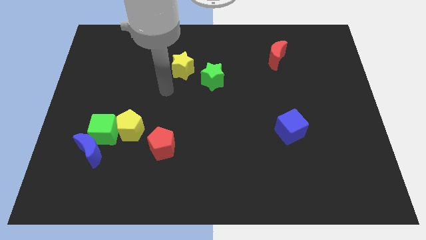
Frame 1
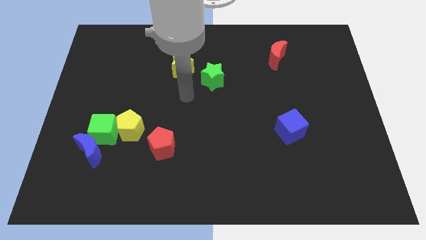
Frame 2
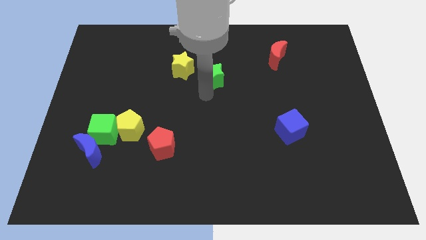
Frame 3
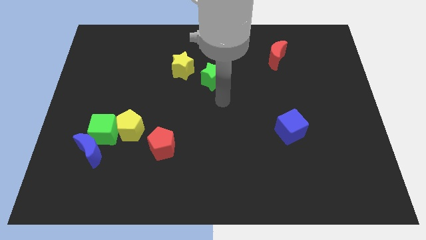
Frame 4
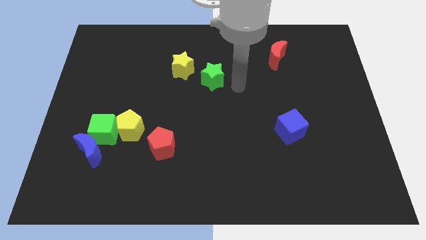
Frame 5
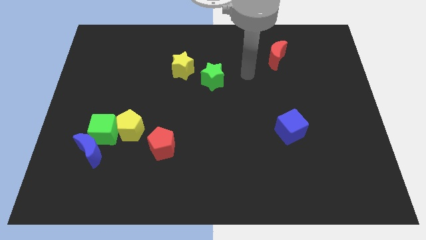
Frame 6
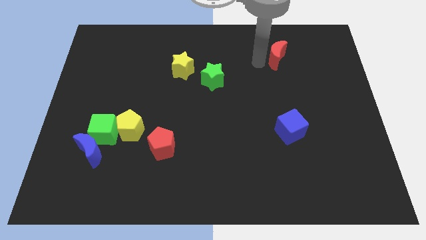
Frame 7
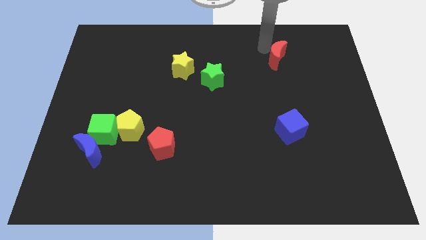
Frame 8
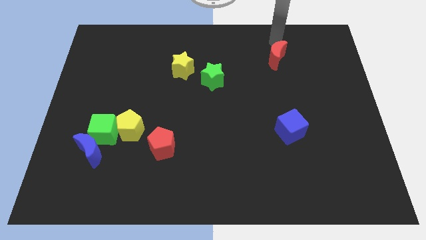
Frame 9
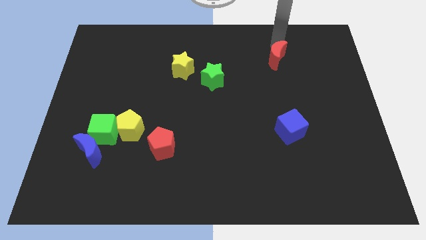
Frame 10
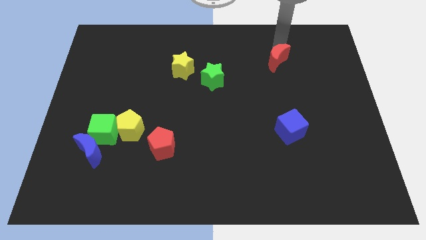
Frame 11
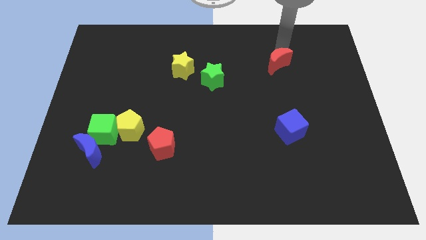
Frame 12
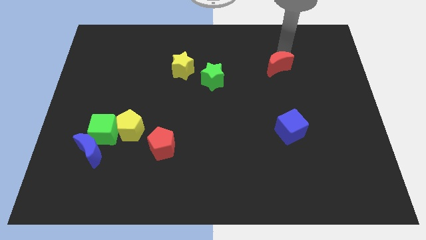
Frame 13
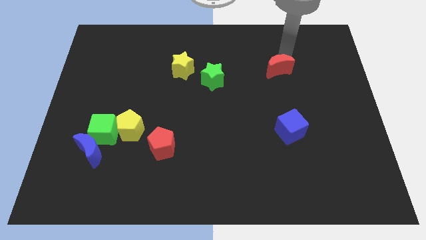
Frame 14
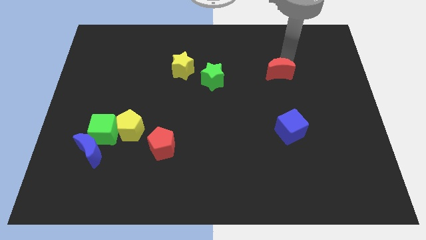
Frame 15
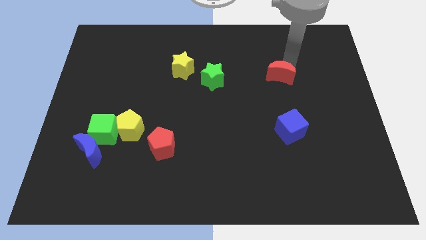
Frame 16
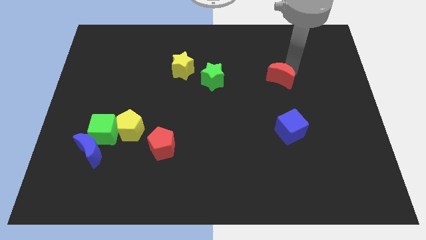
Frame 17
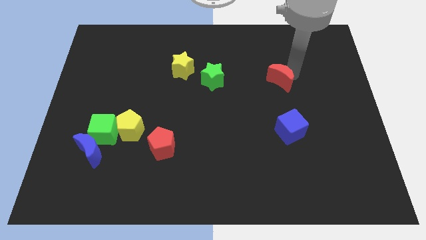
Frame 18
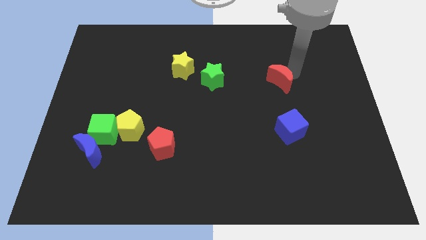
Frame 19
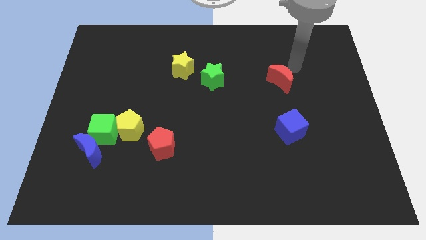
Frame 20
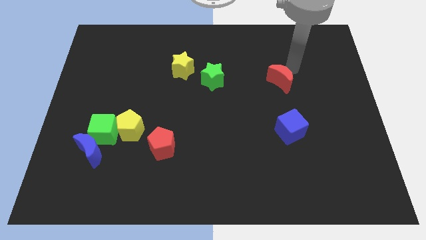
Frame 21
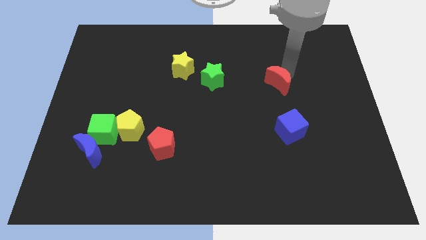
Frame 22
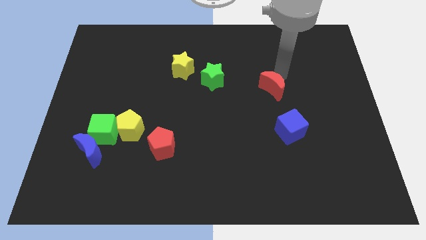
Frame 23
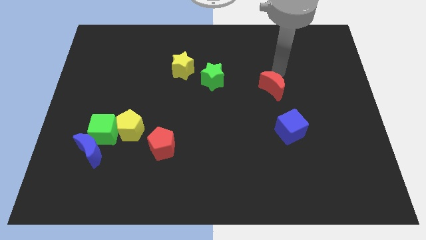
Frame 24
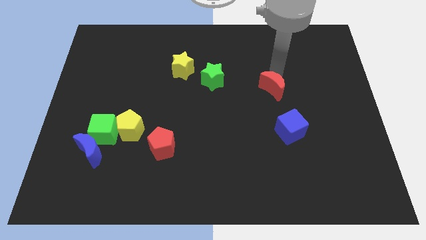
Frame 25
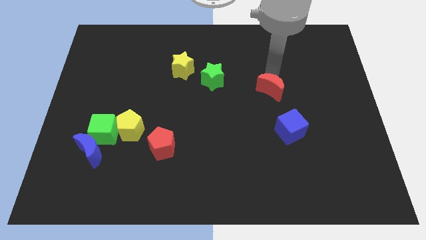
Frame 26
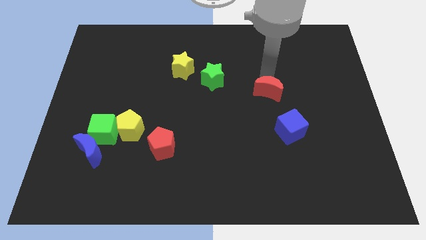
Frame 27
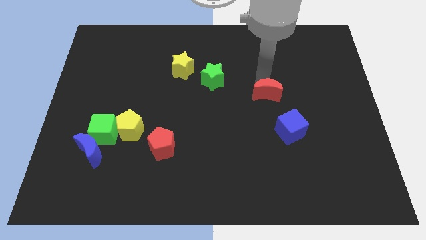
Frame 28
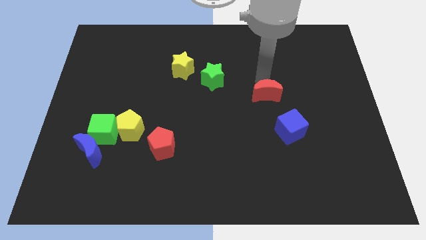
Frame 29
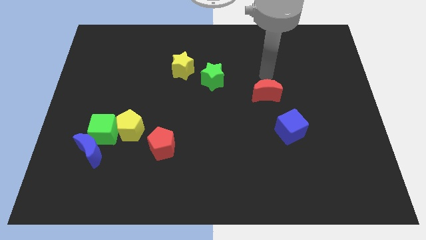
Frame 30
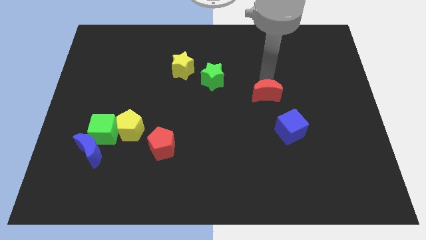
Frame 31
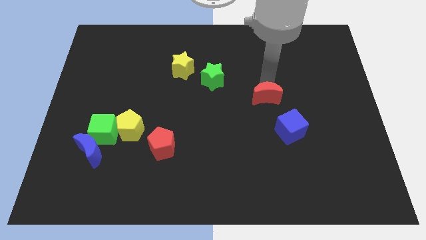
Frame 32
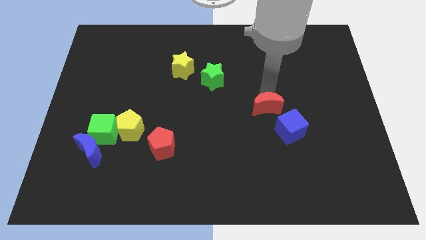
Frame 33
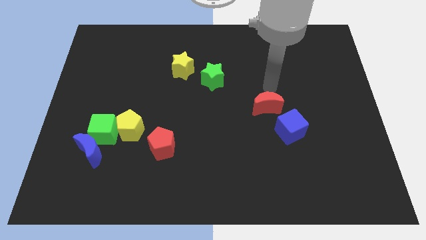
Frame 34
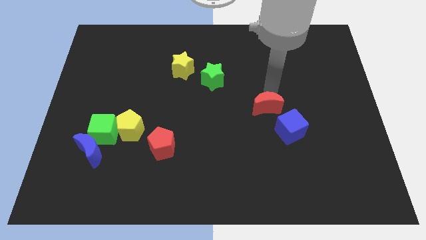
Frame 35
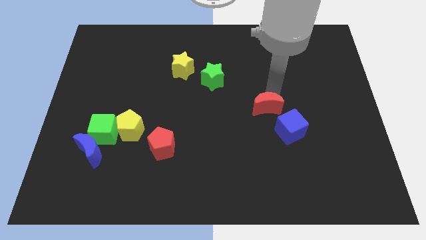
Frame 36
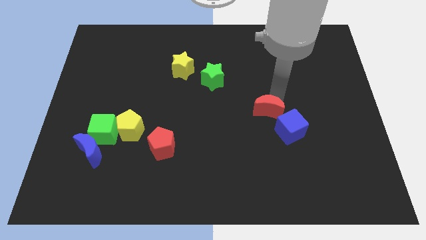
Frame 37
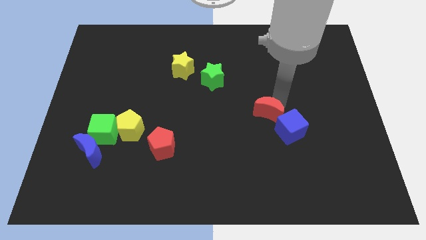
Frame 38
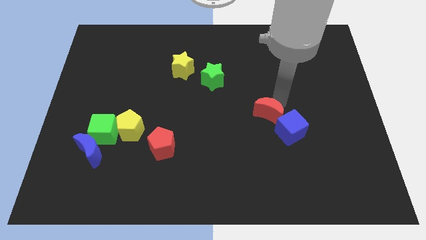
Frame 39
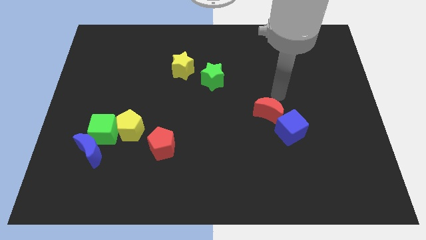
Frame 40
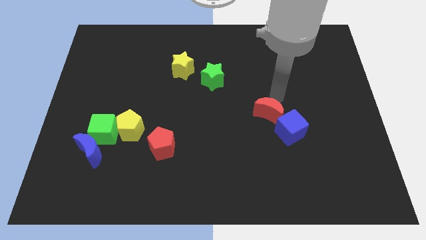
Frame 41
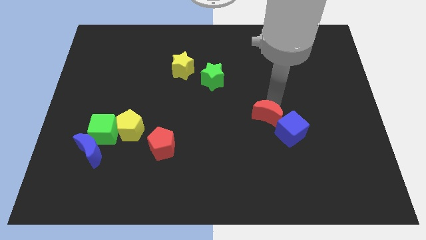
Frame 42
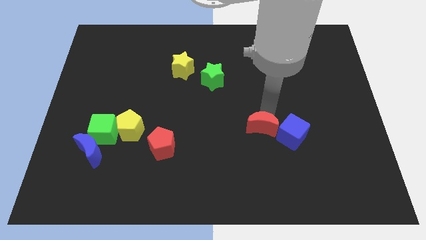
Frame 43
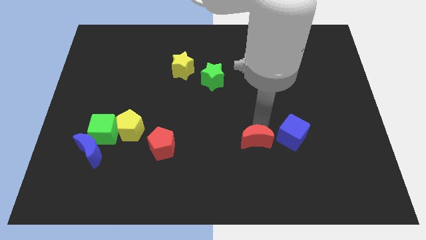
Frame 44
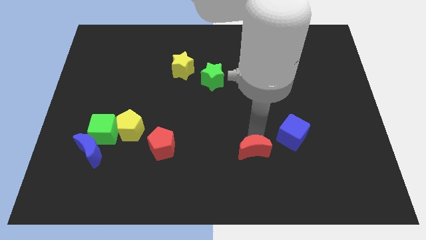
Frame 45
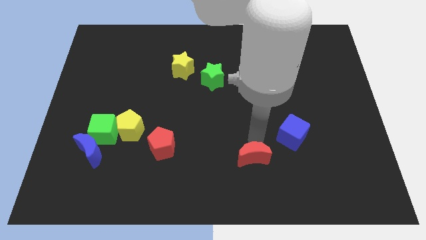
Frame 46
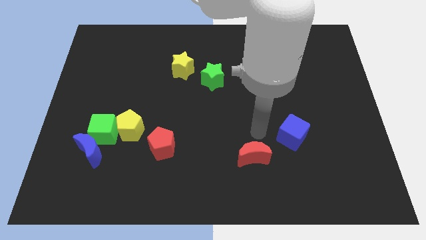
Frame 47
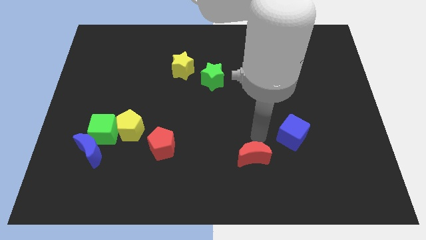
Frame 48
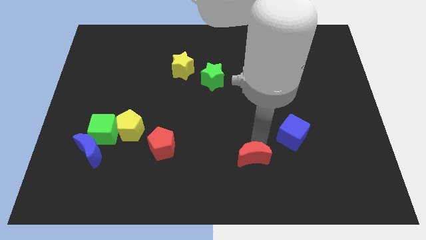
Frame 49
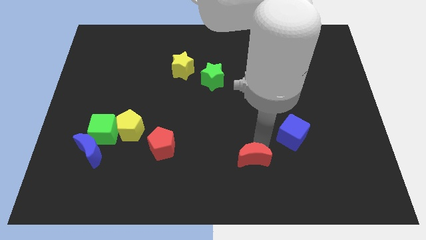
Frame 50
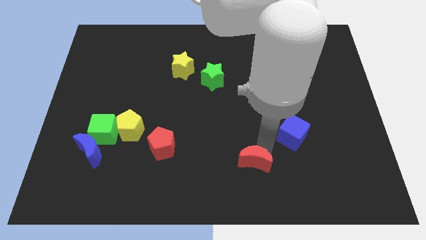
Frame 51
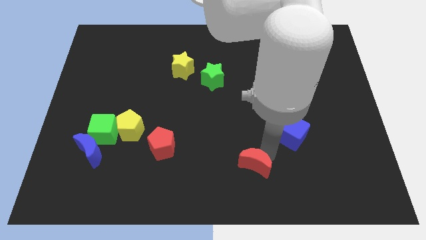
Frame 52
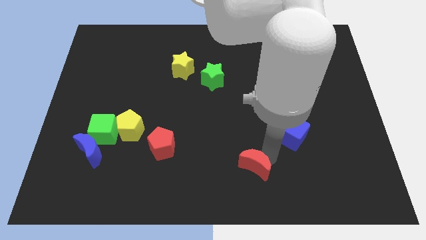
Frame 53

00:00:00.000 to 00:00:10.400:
slide the red moon to the bottom
